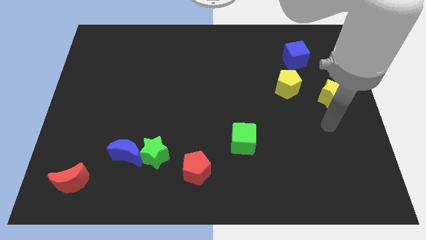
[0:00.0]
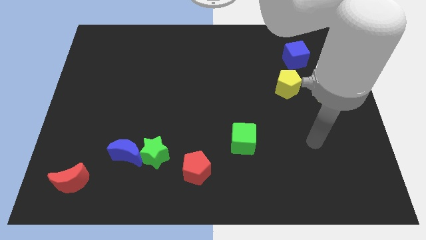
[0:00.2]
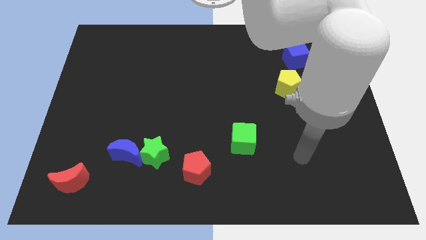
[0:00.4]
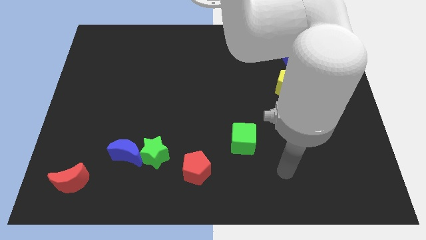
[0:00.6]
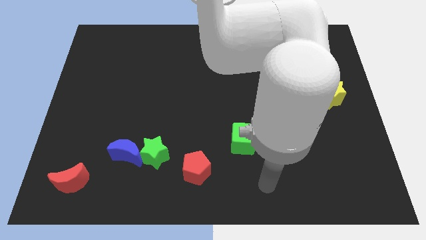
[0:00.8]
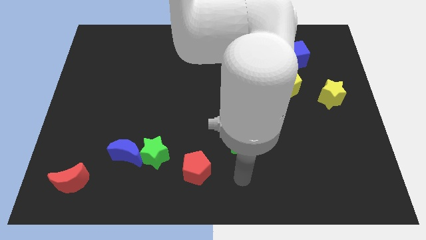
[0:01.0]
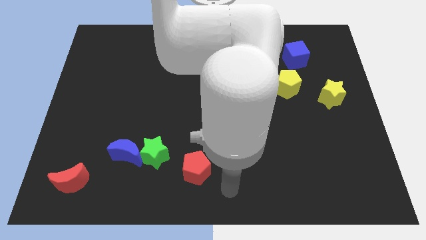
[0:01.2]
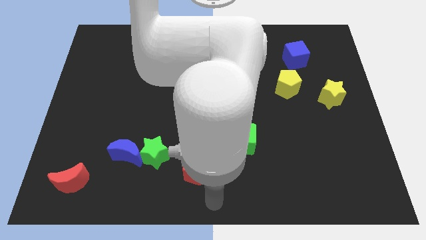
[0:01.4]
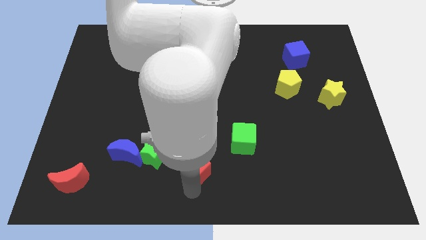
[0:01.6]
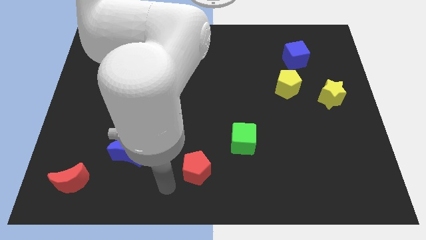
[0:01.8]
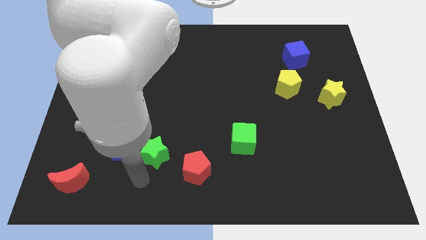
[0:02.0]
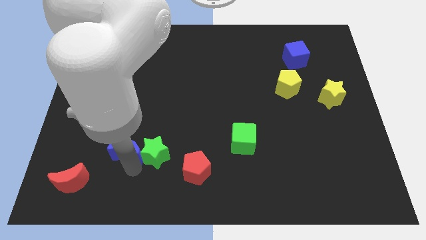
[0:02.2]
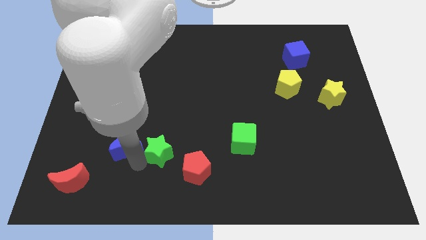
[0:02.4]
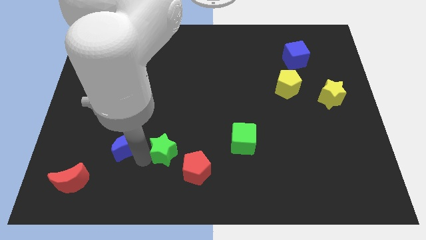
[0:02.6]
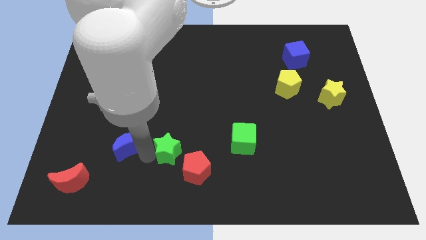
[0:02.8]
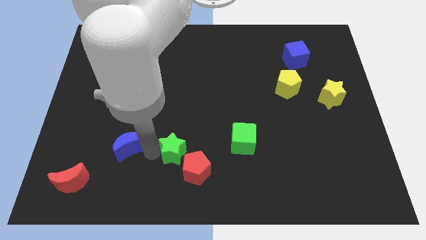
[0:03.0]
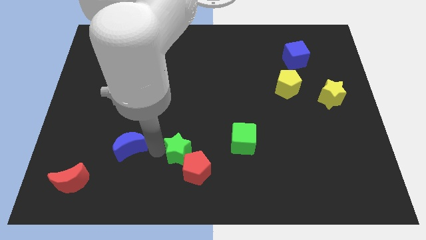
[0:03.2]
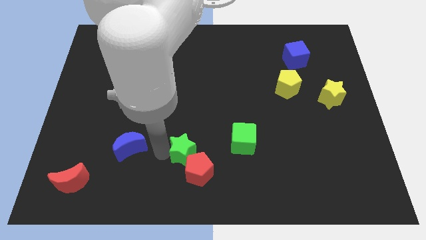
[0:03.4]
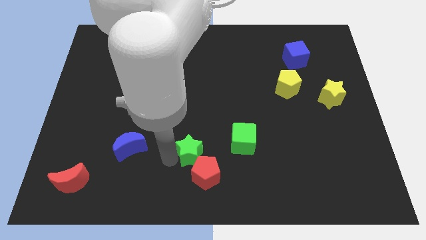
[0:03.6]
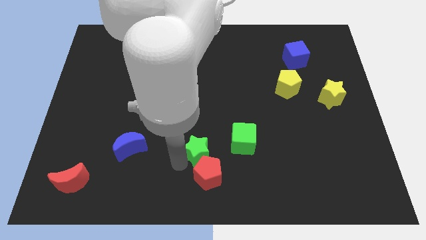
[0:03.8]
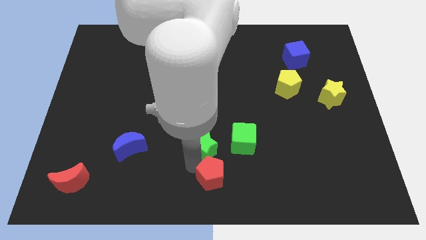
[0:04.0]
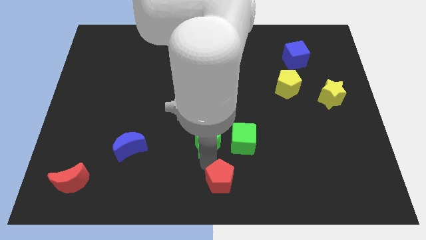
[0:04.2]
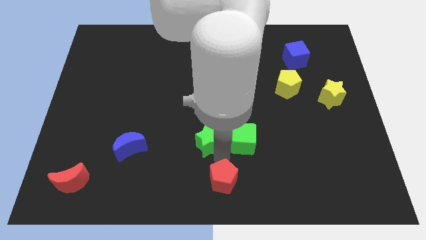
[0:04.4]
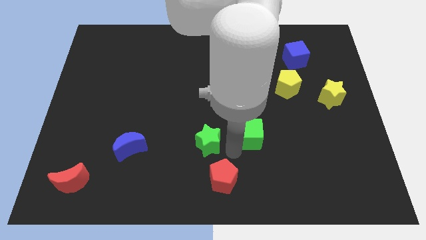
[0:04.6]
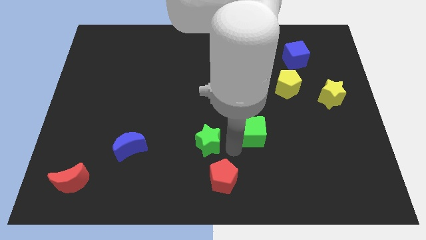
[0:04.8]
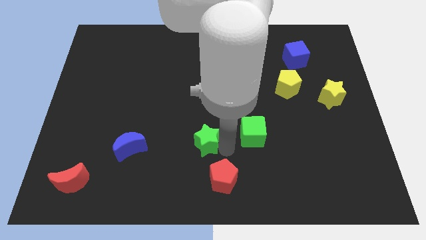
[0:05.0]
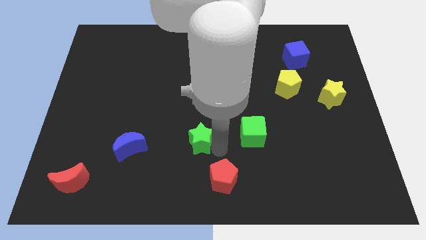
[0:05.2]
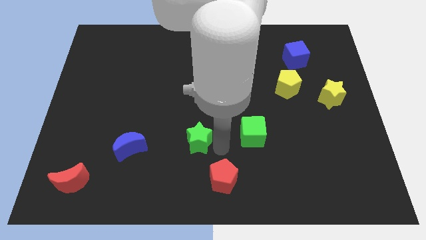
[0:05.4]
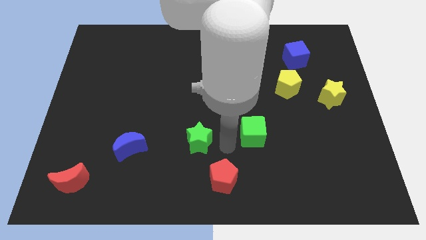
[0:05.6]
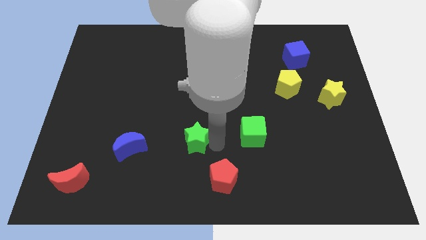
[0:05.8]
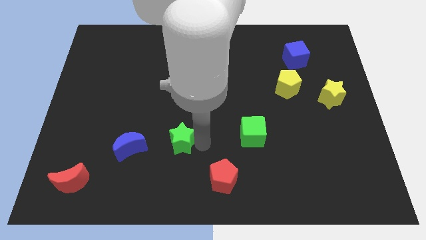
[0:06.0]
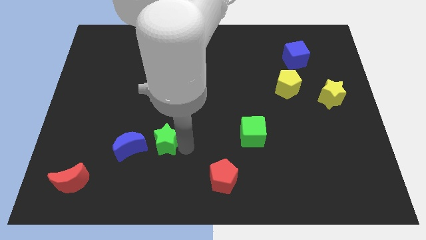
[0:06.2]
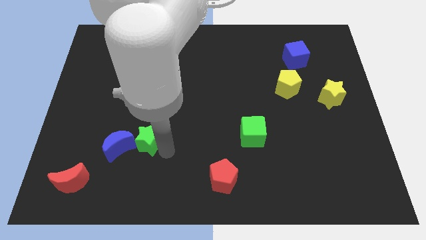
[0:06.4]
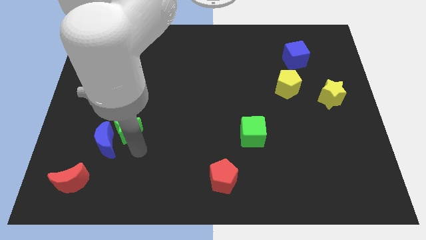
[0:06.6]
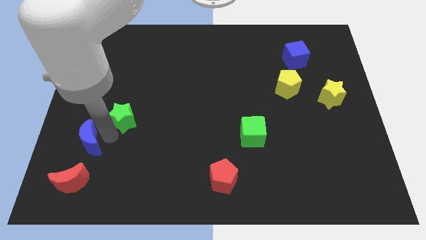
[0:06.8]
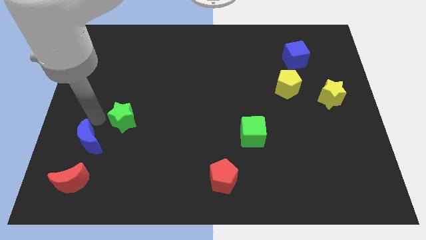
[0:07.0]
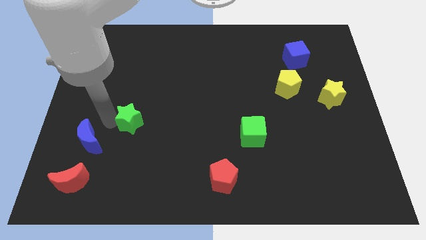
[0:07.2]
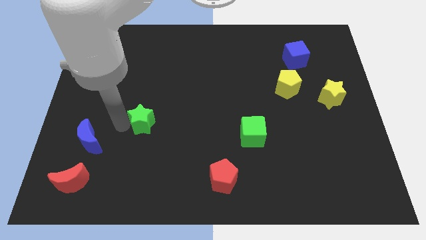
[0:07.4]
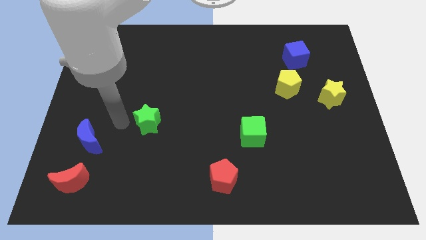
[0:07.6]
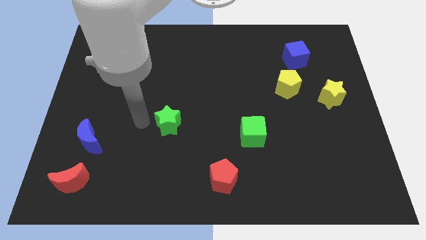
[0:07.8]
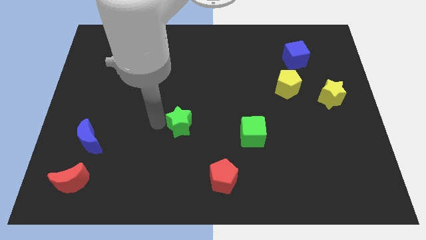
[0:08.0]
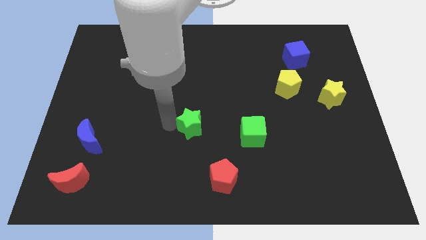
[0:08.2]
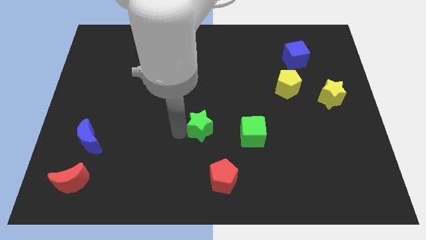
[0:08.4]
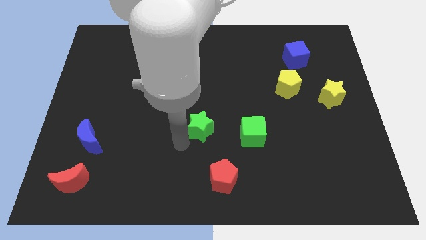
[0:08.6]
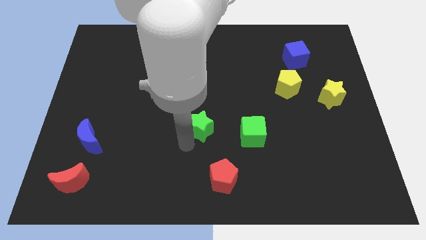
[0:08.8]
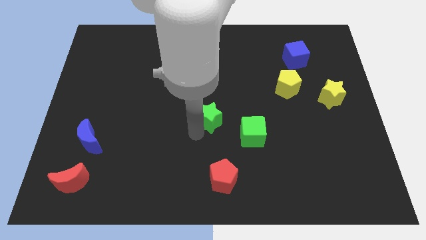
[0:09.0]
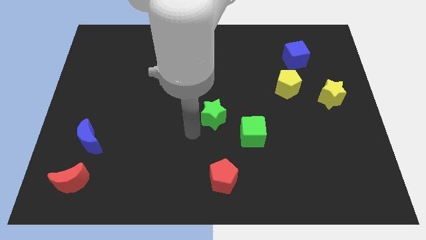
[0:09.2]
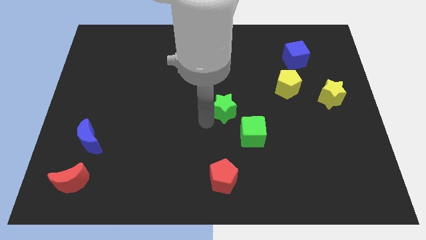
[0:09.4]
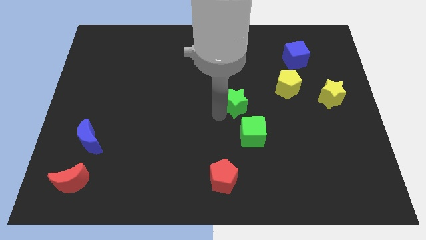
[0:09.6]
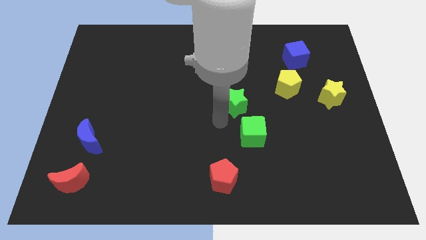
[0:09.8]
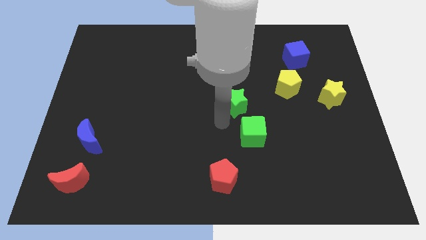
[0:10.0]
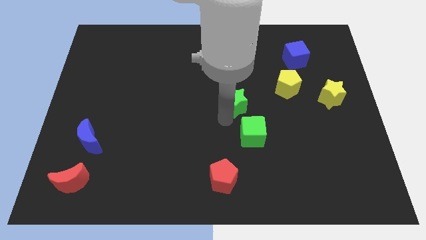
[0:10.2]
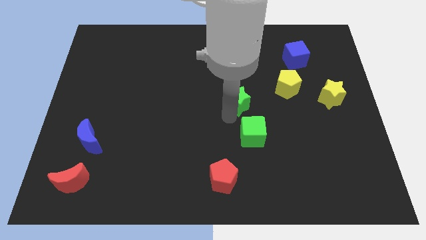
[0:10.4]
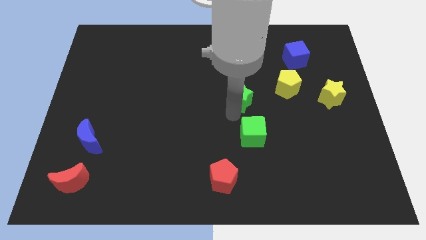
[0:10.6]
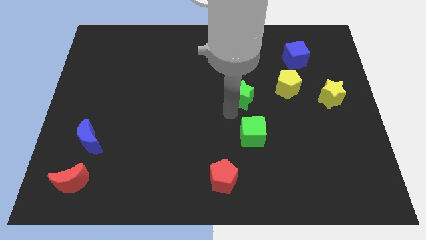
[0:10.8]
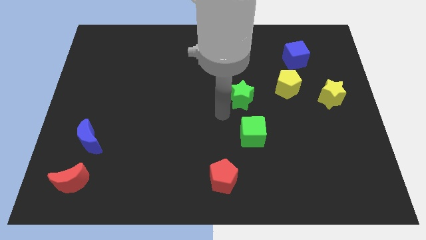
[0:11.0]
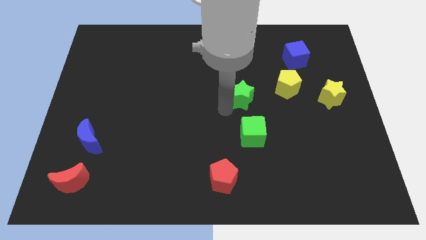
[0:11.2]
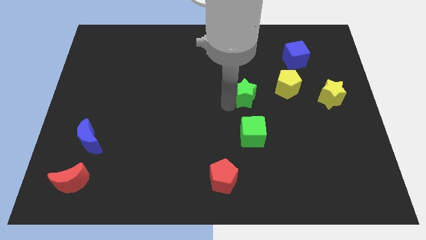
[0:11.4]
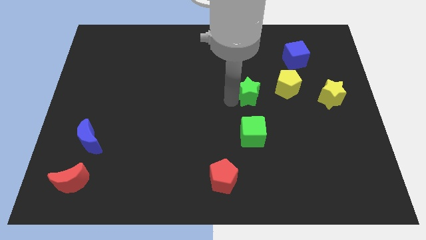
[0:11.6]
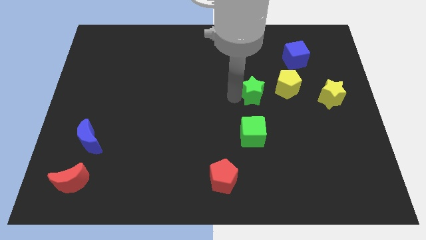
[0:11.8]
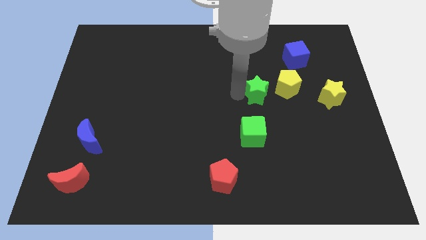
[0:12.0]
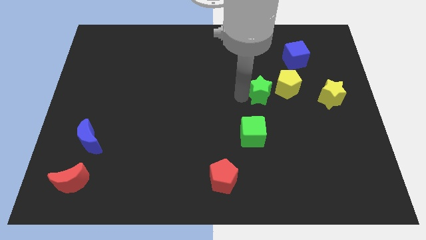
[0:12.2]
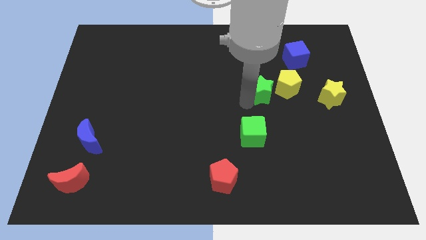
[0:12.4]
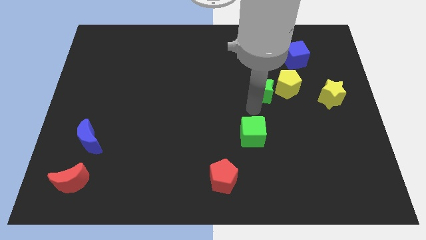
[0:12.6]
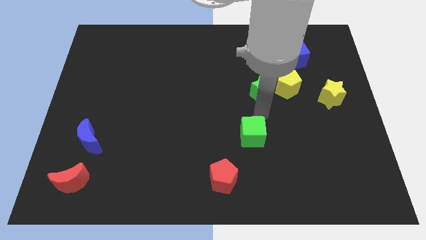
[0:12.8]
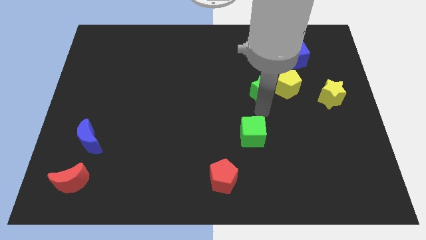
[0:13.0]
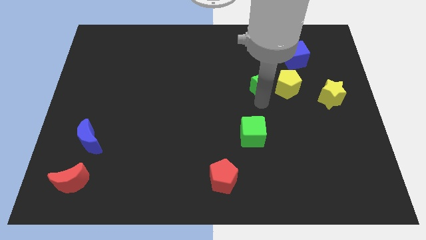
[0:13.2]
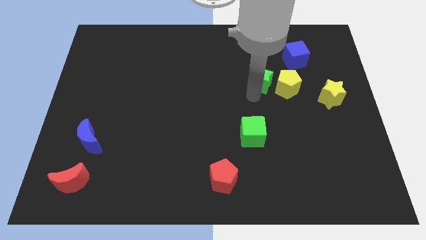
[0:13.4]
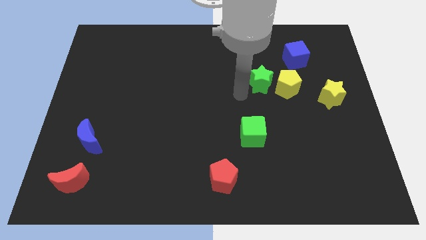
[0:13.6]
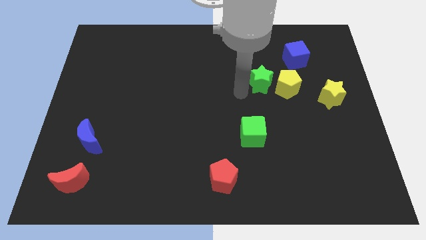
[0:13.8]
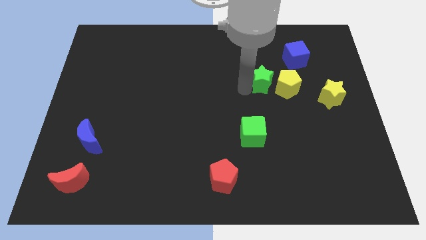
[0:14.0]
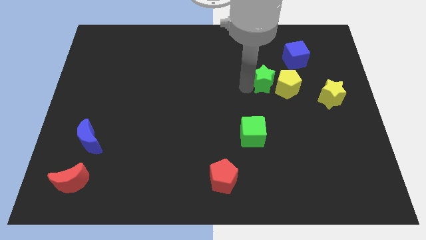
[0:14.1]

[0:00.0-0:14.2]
put the green star to the bottom left side of the blue cube

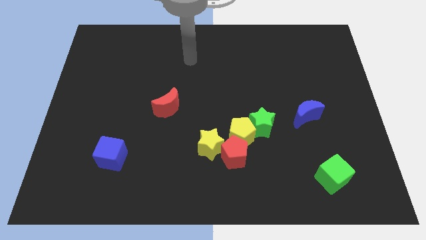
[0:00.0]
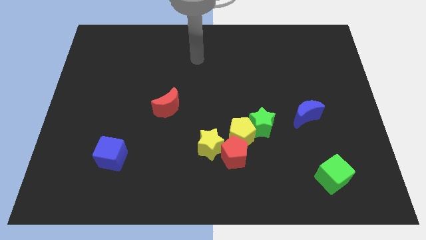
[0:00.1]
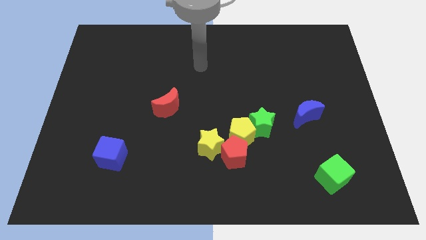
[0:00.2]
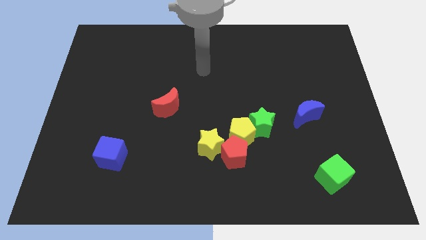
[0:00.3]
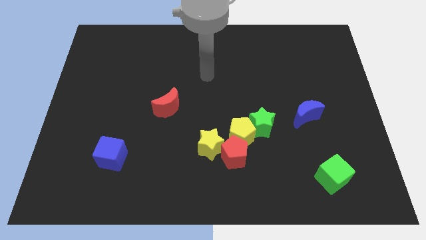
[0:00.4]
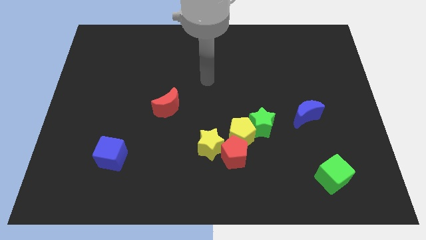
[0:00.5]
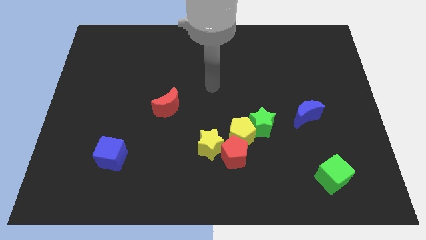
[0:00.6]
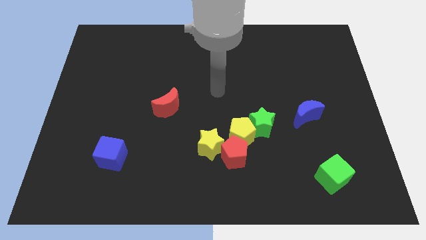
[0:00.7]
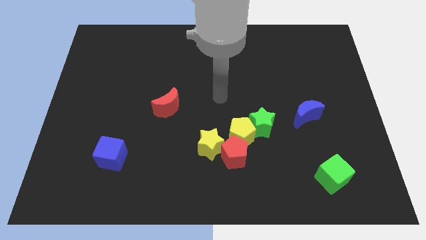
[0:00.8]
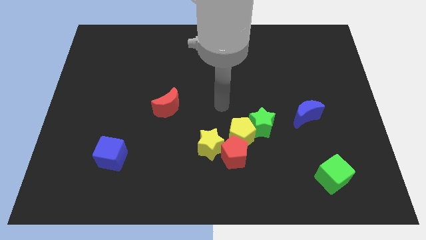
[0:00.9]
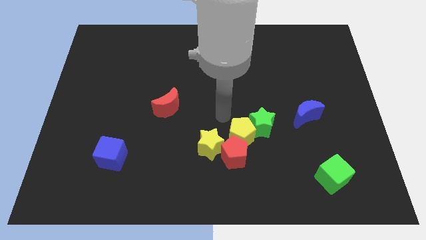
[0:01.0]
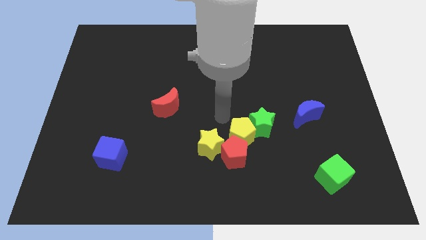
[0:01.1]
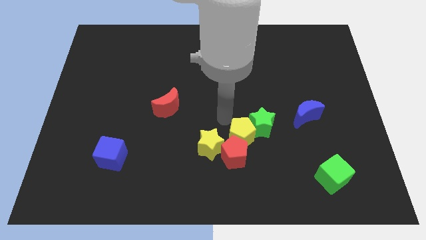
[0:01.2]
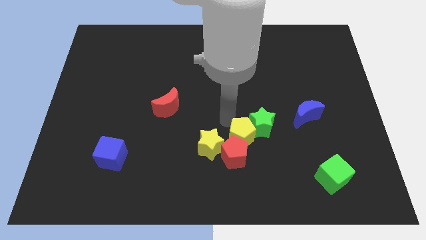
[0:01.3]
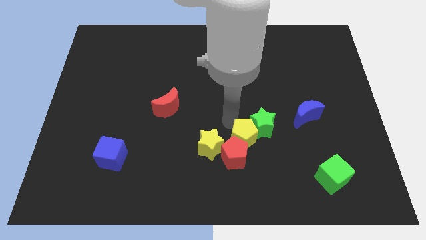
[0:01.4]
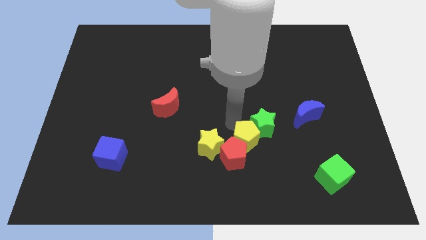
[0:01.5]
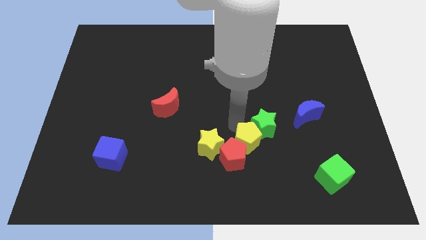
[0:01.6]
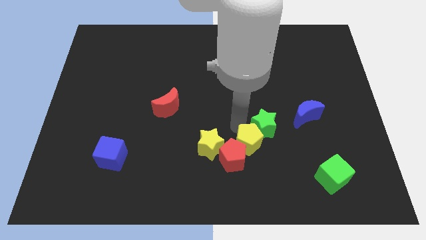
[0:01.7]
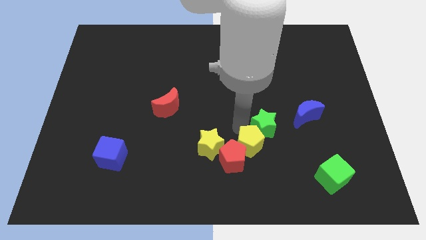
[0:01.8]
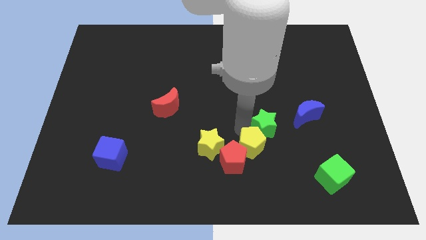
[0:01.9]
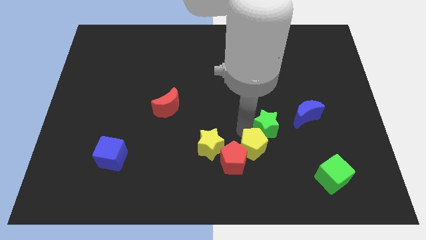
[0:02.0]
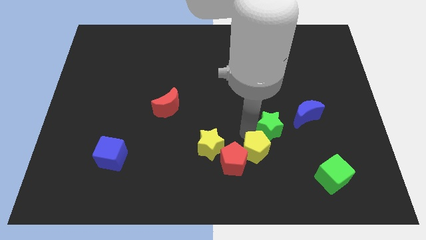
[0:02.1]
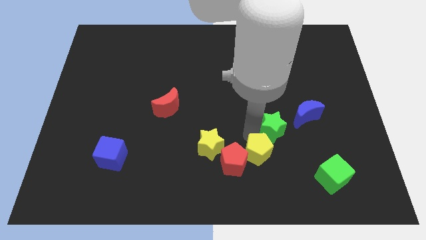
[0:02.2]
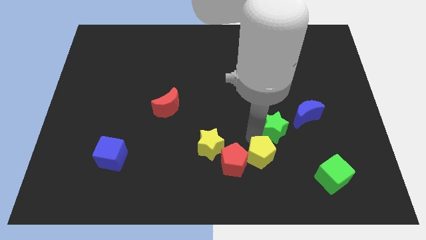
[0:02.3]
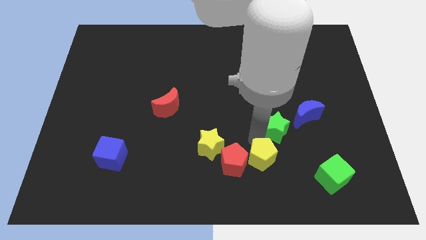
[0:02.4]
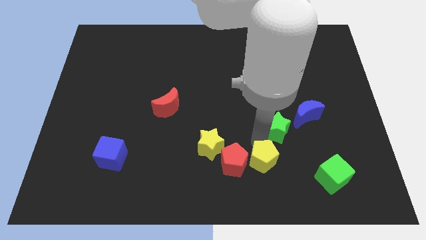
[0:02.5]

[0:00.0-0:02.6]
put the yellow pentagon to the left of the green cube
